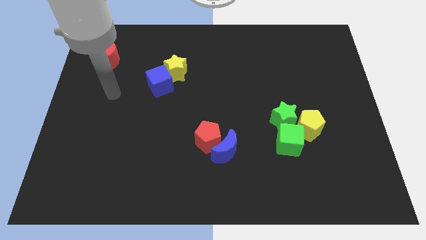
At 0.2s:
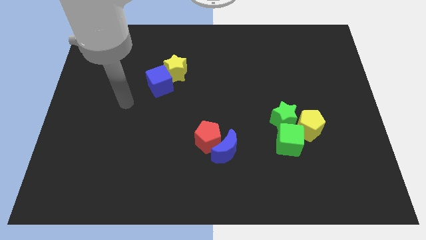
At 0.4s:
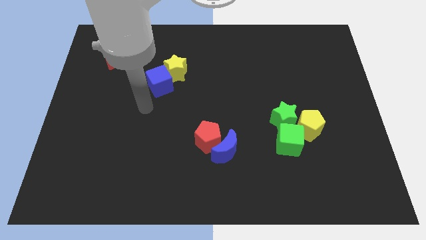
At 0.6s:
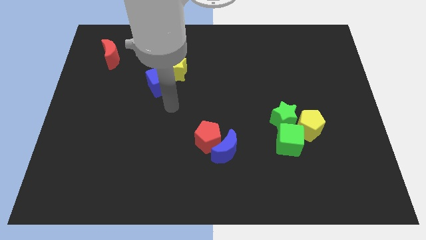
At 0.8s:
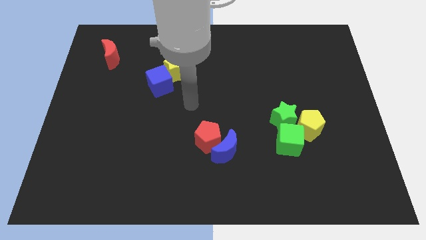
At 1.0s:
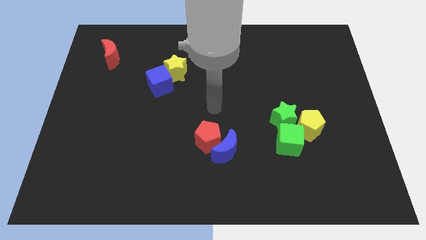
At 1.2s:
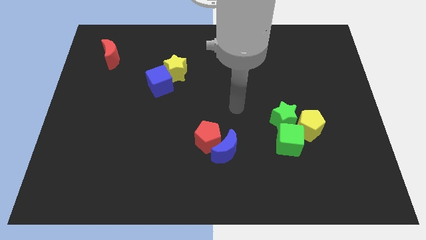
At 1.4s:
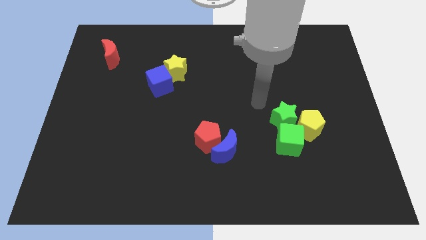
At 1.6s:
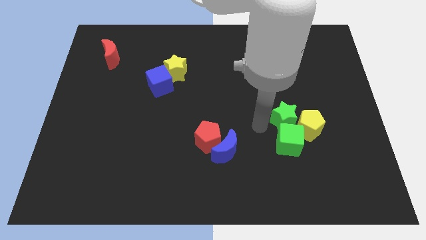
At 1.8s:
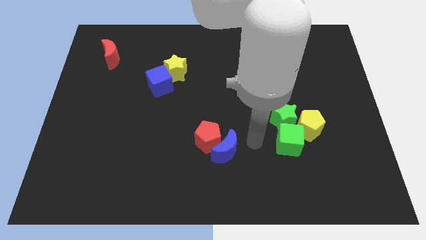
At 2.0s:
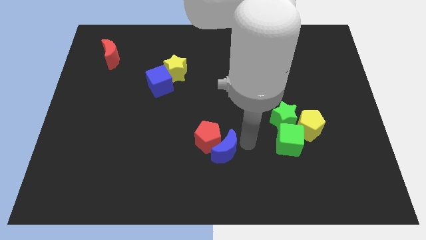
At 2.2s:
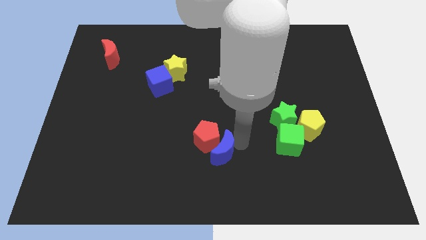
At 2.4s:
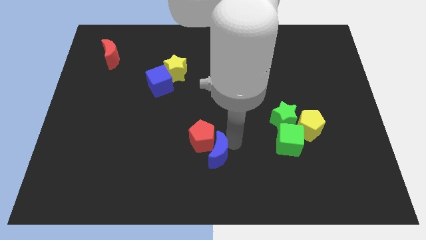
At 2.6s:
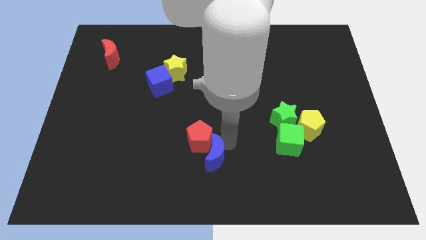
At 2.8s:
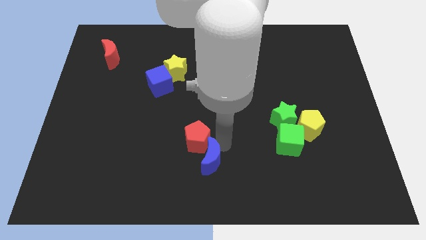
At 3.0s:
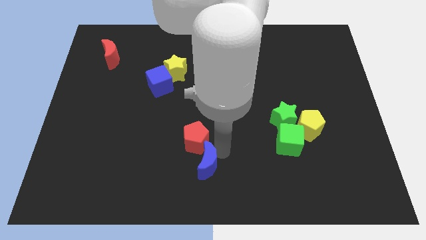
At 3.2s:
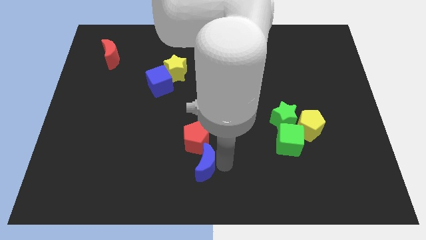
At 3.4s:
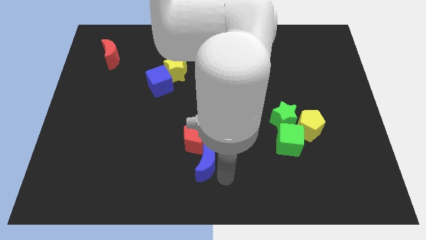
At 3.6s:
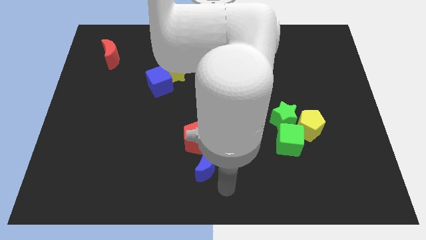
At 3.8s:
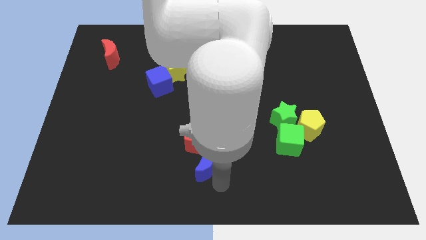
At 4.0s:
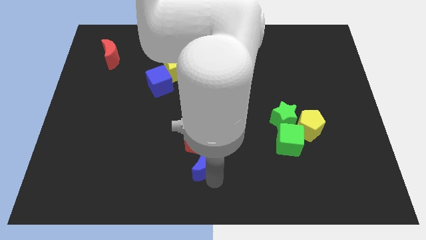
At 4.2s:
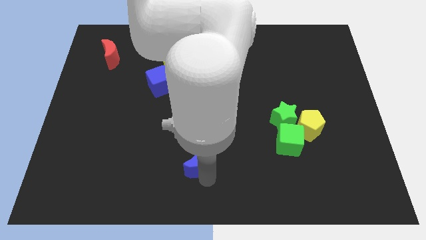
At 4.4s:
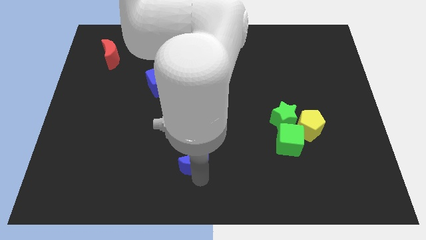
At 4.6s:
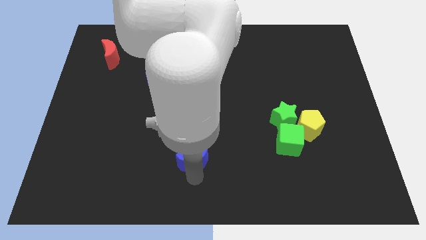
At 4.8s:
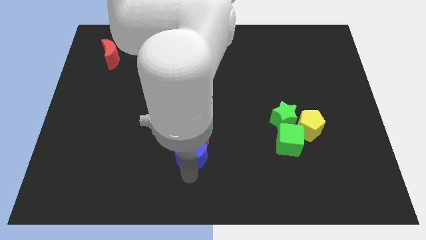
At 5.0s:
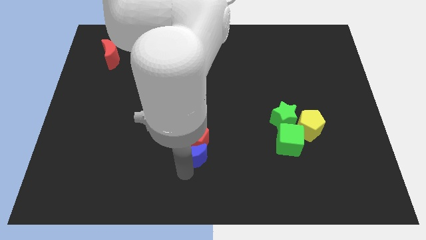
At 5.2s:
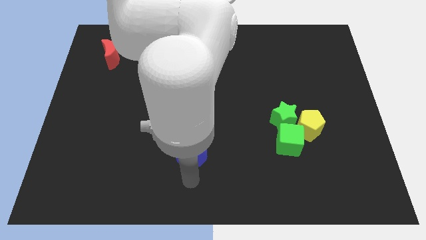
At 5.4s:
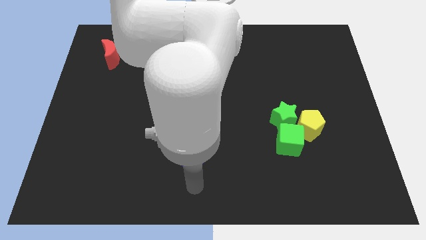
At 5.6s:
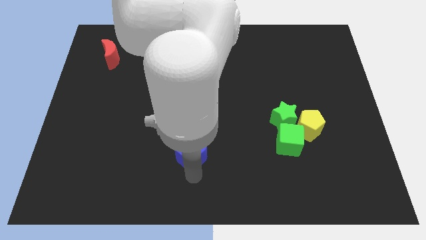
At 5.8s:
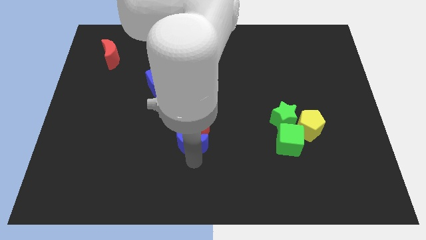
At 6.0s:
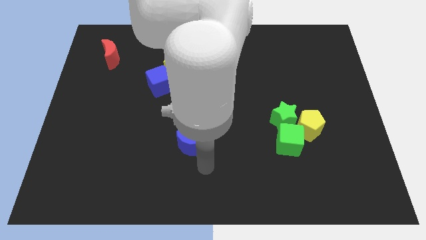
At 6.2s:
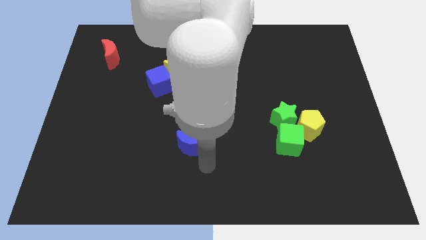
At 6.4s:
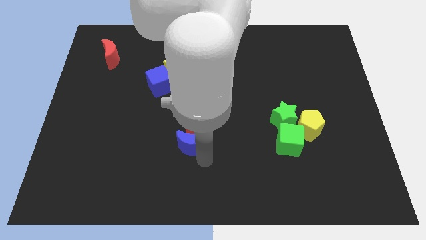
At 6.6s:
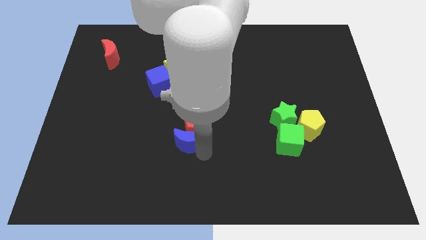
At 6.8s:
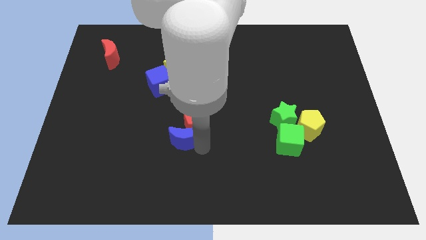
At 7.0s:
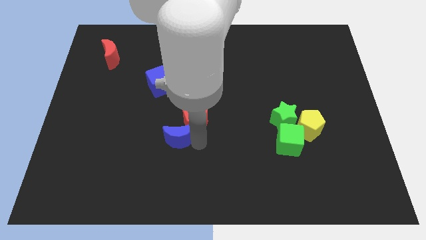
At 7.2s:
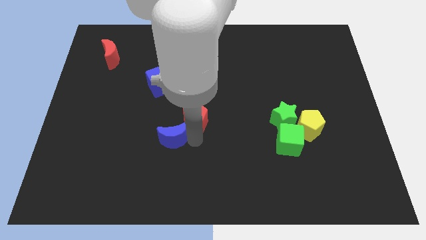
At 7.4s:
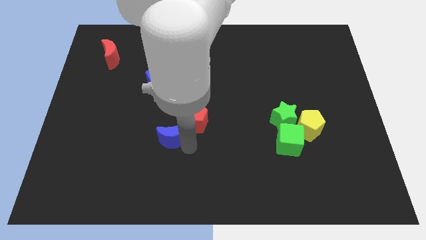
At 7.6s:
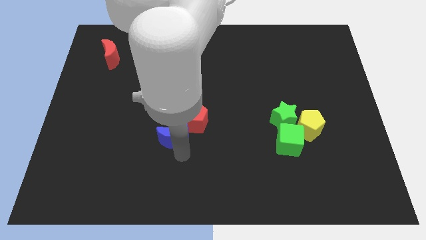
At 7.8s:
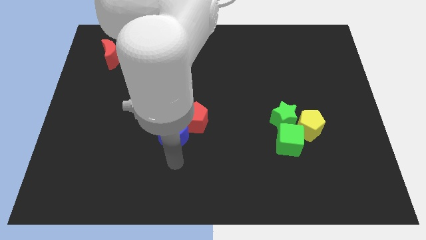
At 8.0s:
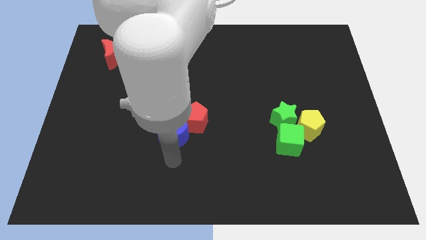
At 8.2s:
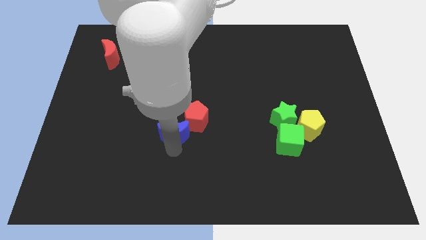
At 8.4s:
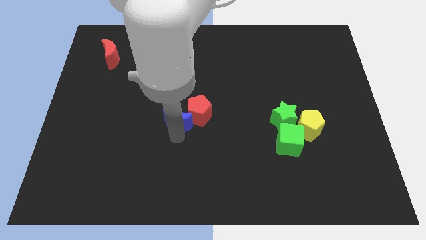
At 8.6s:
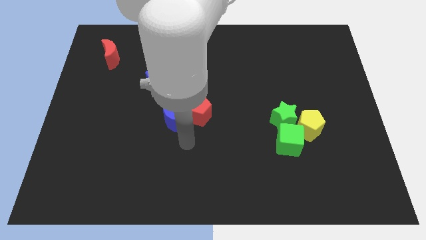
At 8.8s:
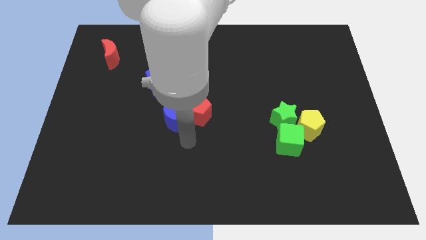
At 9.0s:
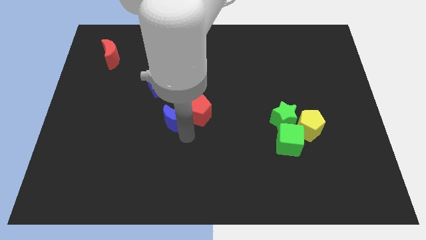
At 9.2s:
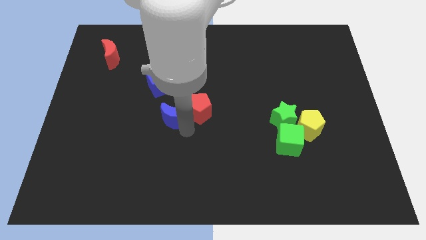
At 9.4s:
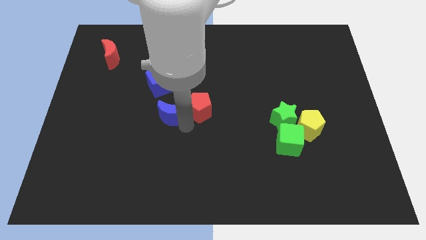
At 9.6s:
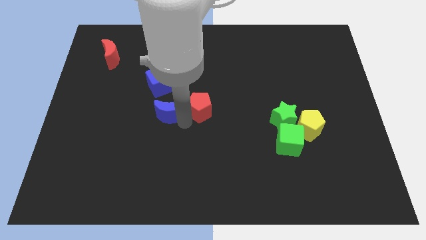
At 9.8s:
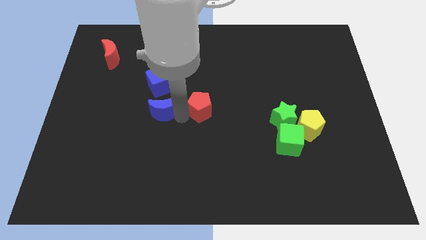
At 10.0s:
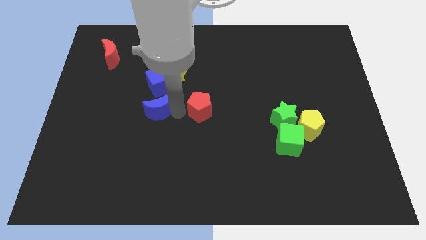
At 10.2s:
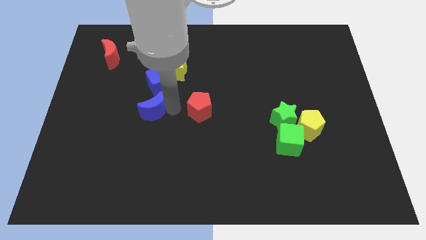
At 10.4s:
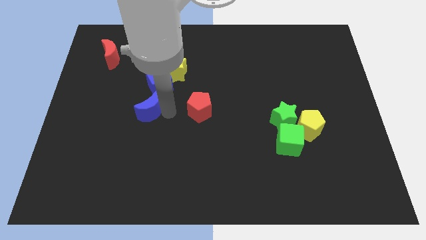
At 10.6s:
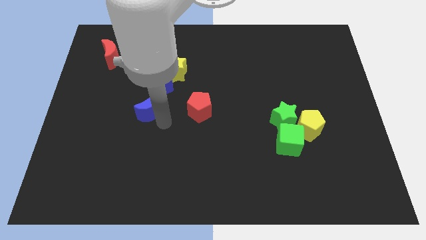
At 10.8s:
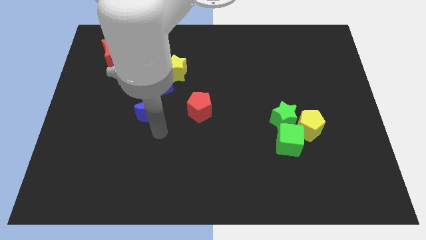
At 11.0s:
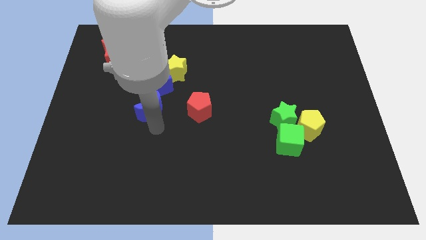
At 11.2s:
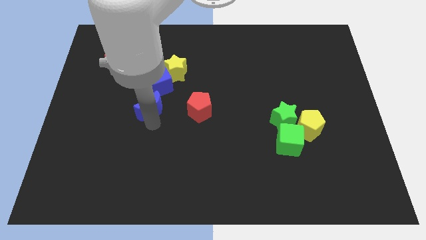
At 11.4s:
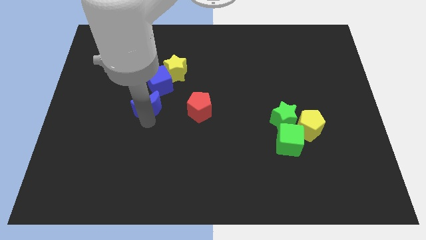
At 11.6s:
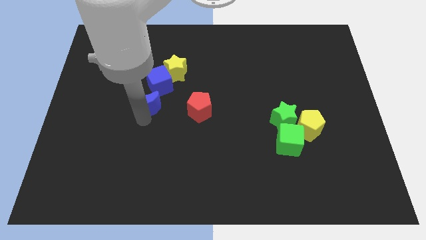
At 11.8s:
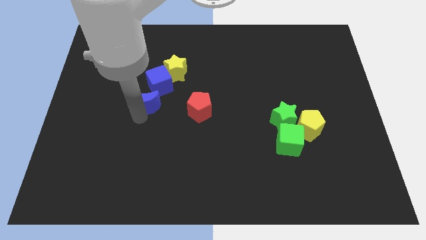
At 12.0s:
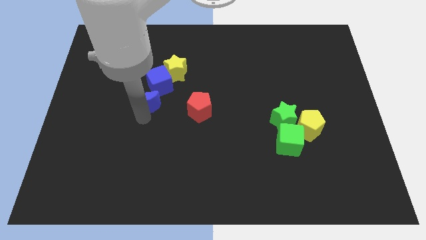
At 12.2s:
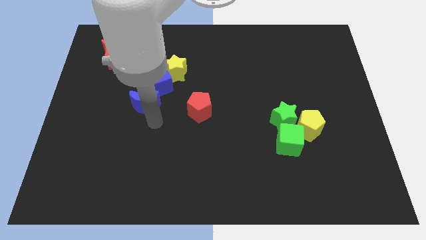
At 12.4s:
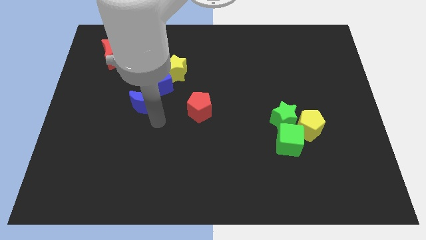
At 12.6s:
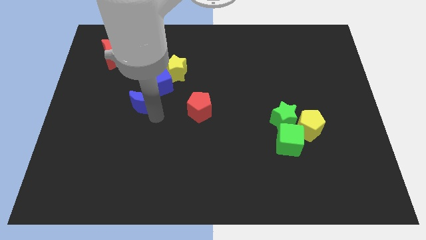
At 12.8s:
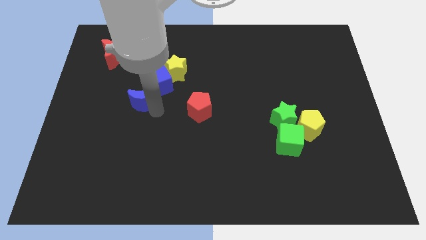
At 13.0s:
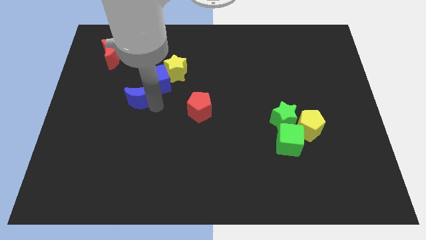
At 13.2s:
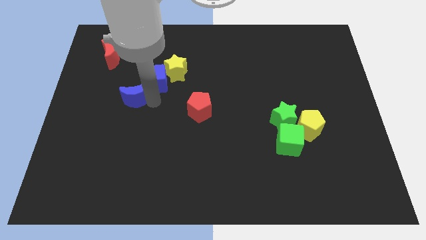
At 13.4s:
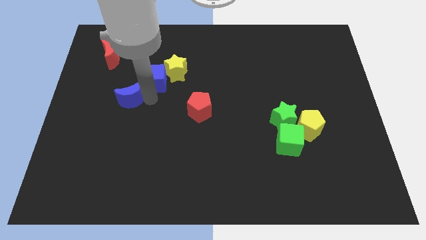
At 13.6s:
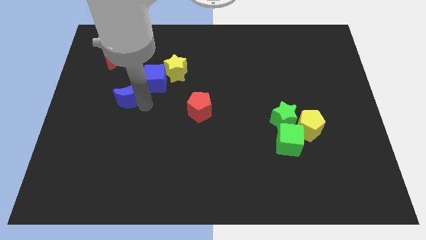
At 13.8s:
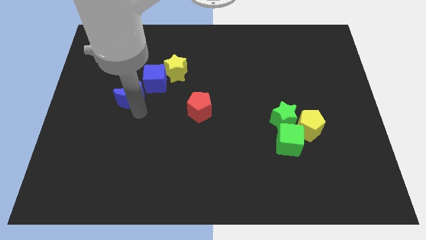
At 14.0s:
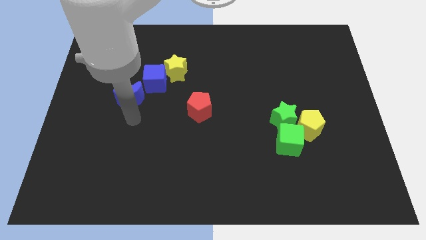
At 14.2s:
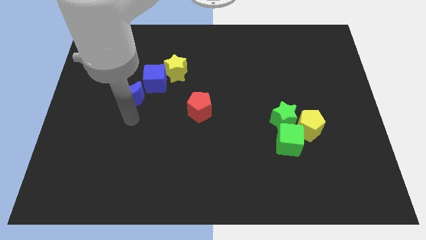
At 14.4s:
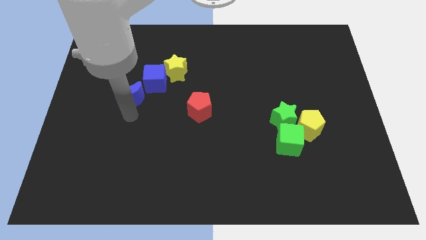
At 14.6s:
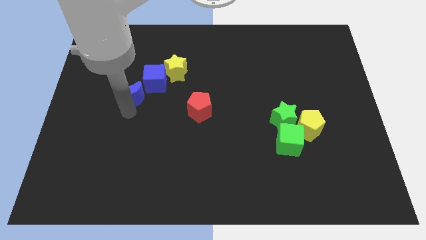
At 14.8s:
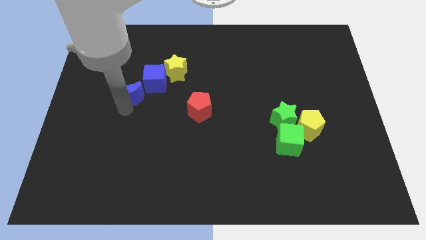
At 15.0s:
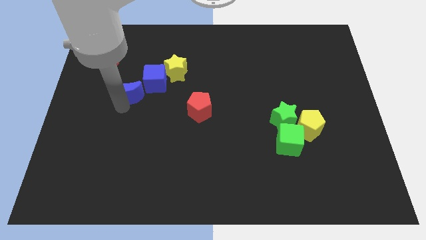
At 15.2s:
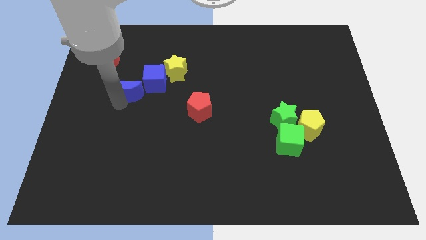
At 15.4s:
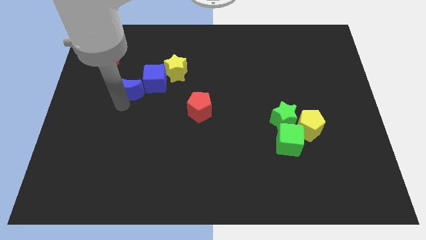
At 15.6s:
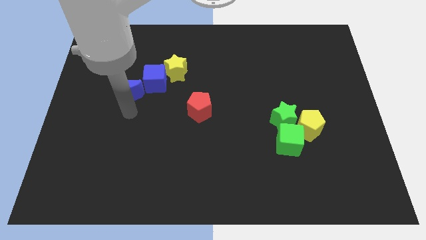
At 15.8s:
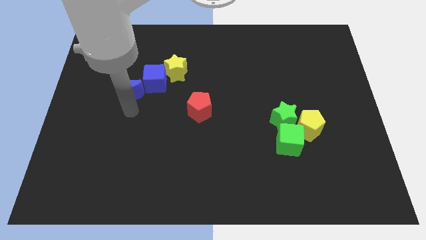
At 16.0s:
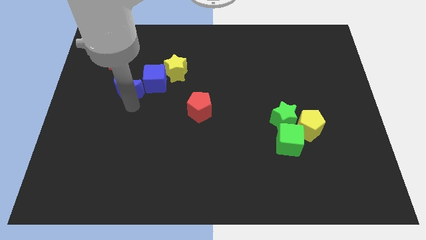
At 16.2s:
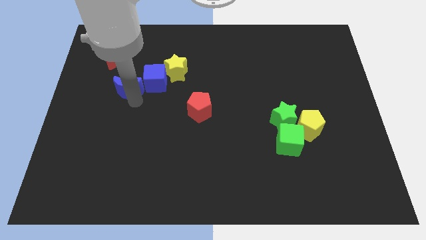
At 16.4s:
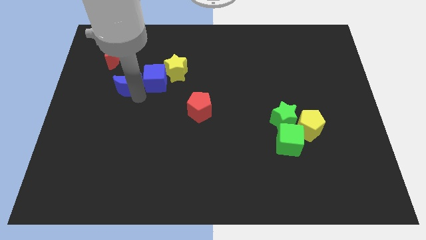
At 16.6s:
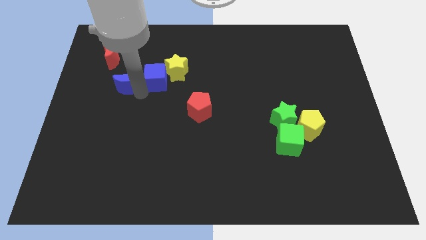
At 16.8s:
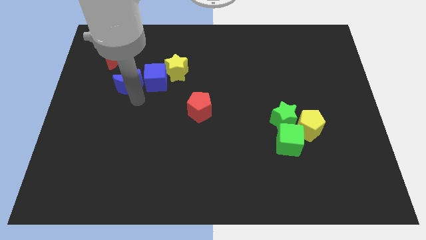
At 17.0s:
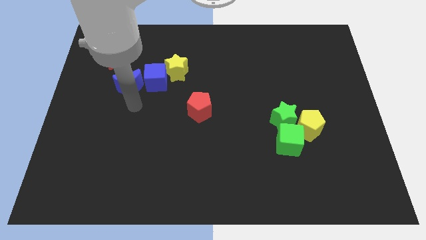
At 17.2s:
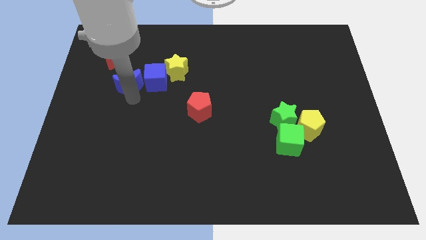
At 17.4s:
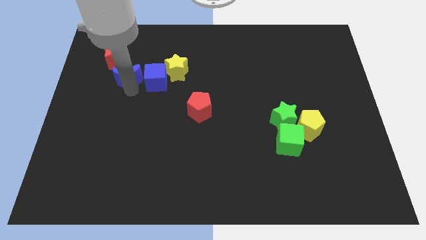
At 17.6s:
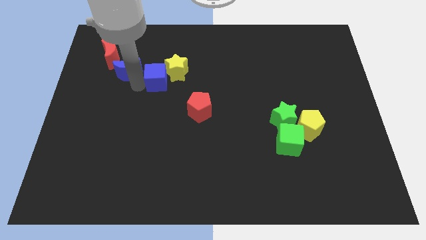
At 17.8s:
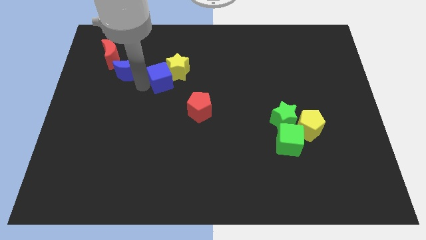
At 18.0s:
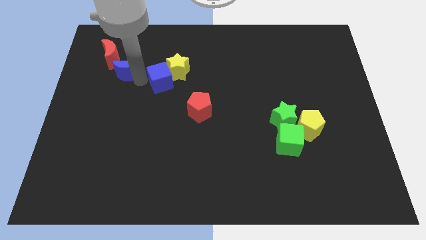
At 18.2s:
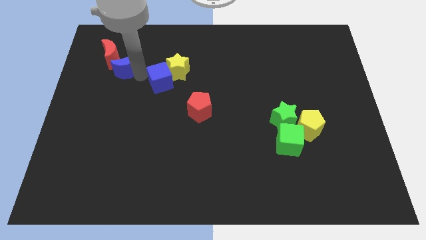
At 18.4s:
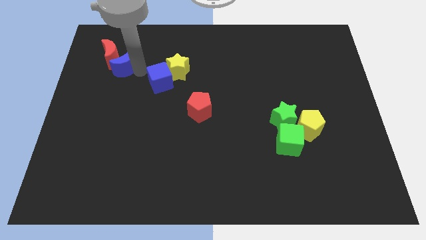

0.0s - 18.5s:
push the blue moon close to the red moon
